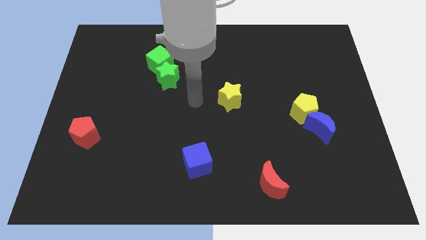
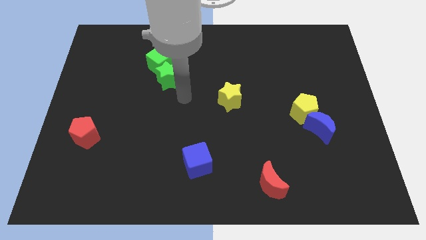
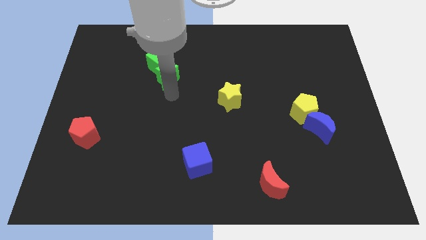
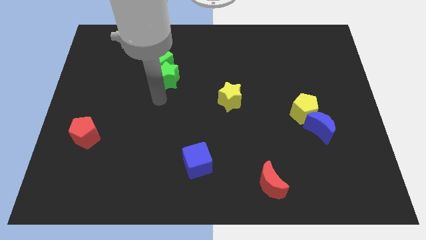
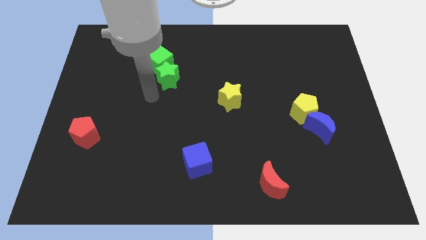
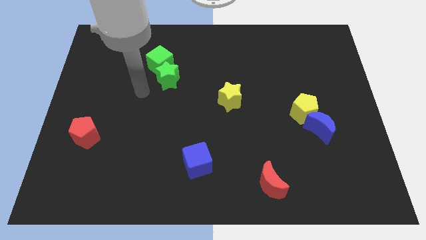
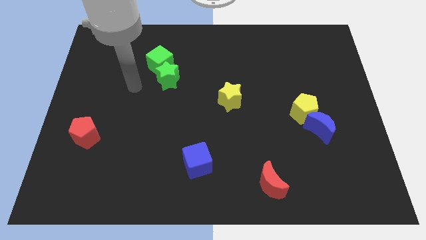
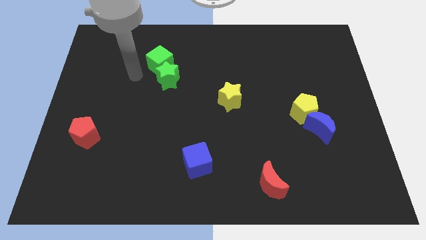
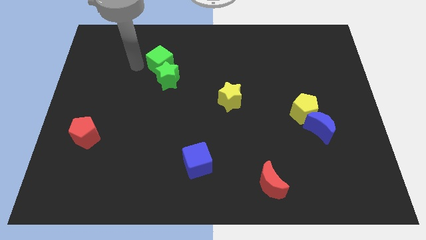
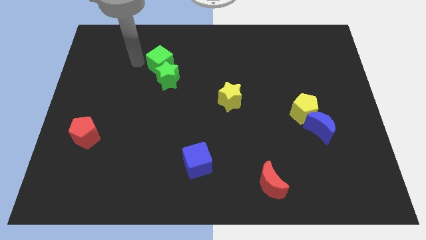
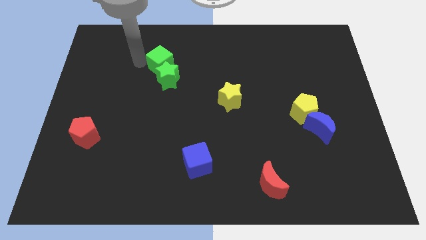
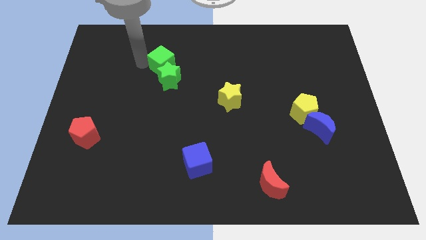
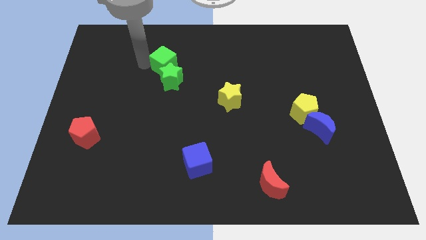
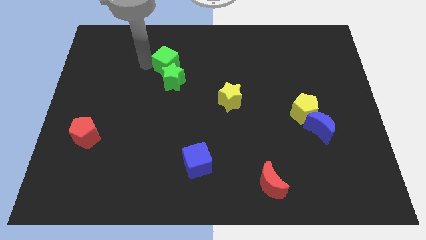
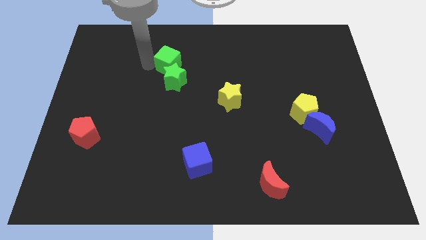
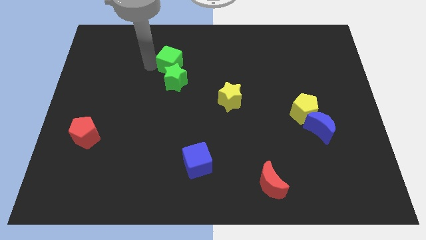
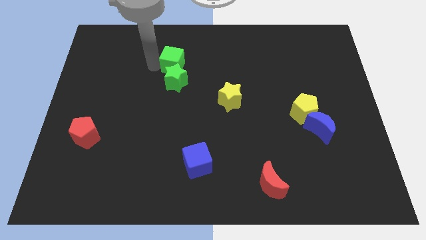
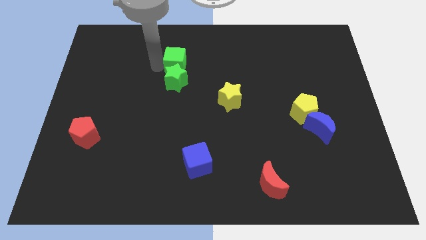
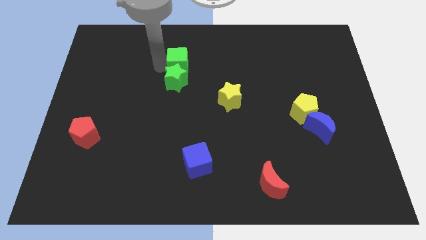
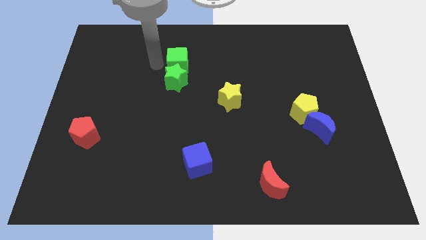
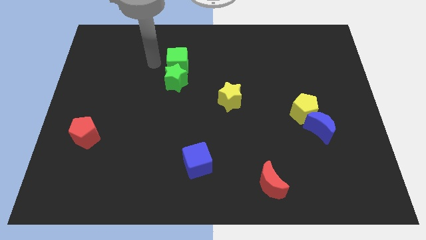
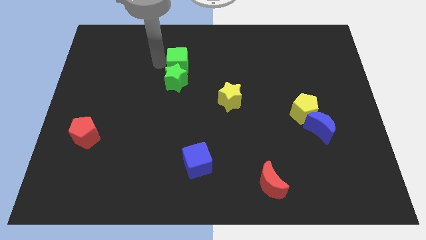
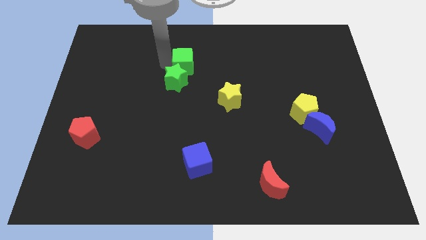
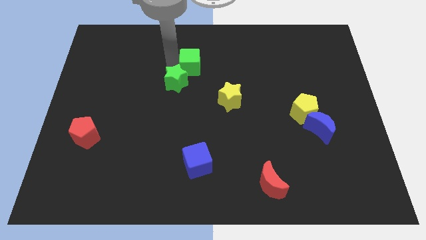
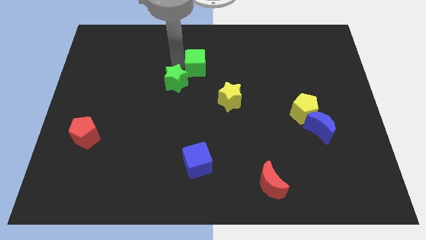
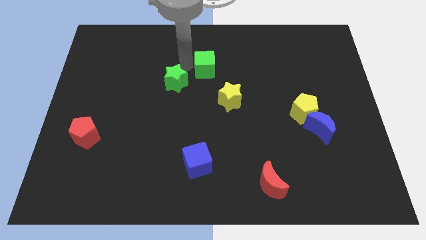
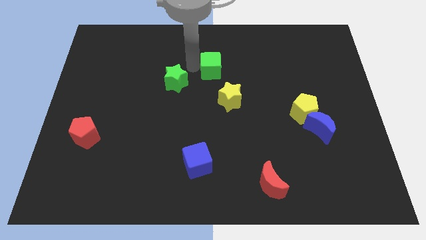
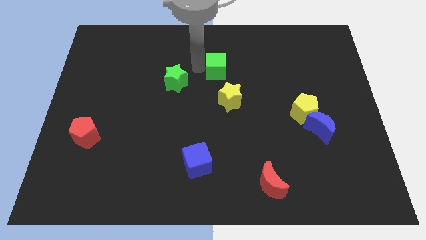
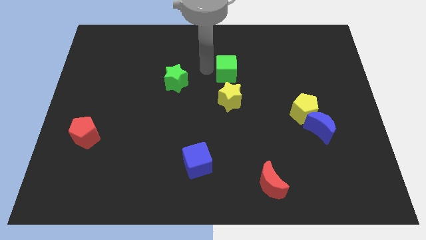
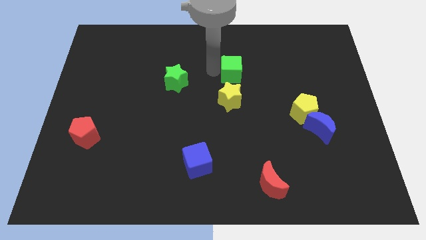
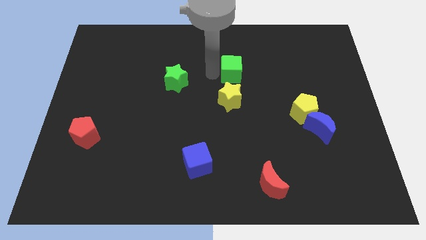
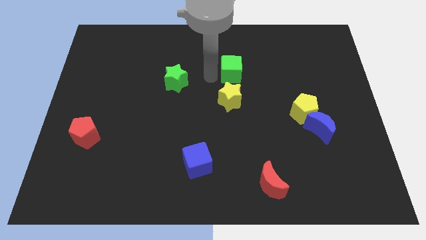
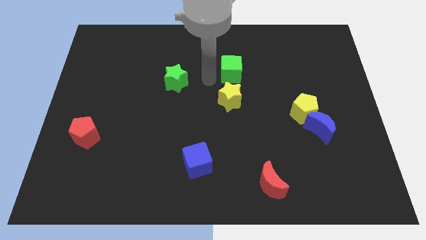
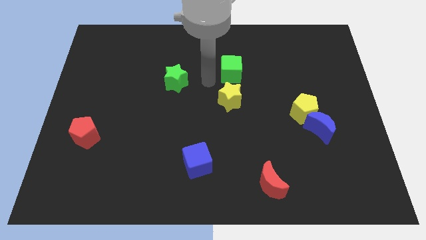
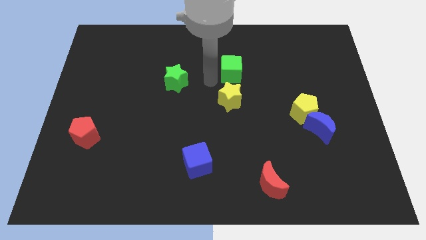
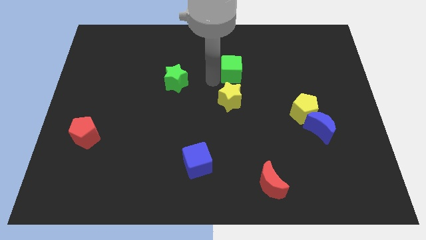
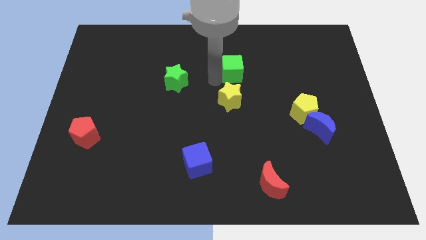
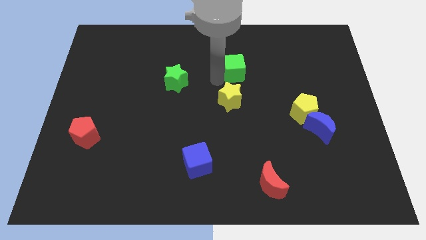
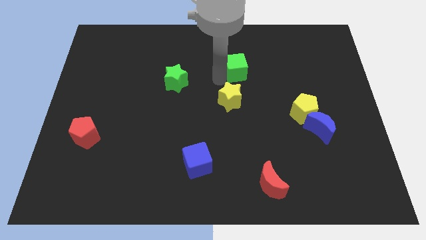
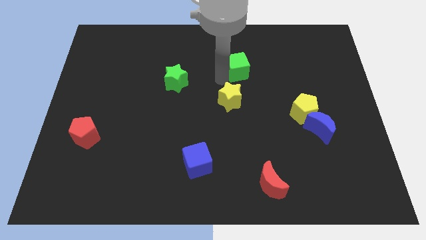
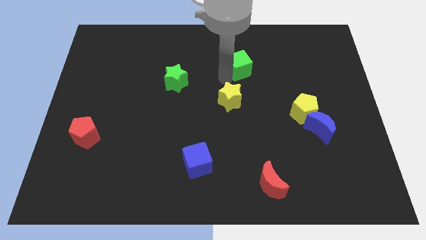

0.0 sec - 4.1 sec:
move the green cube to the right

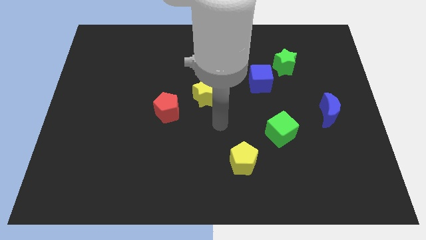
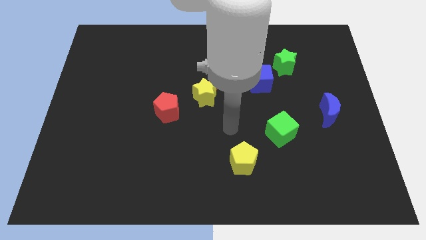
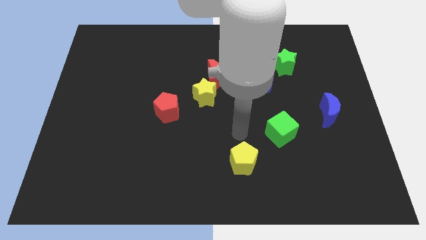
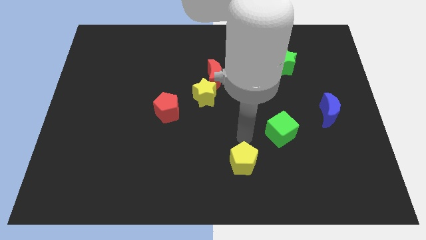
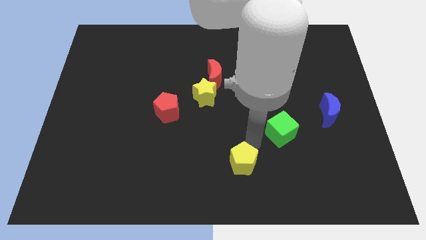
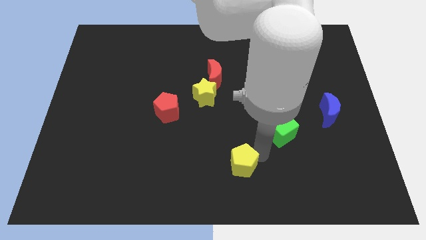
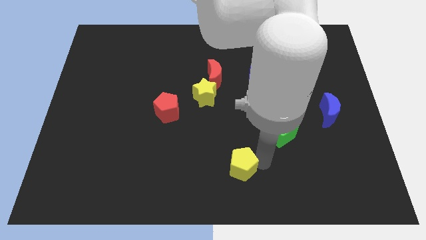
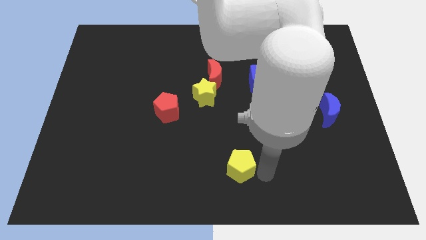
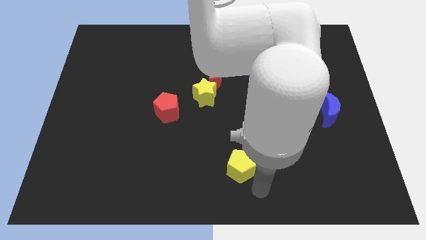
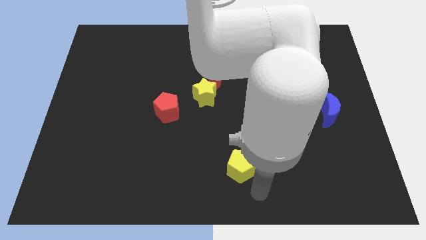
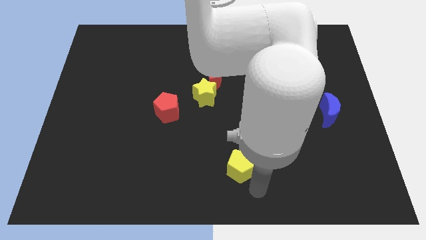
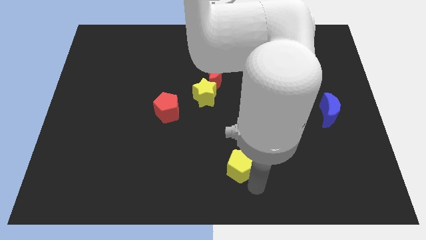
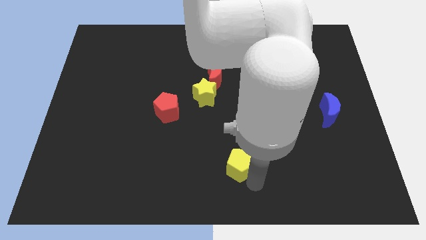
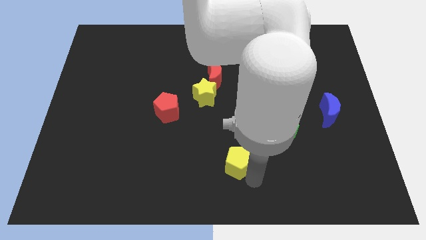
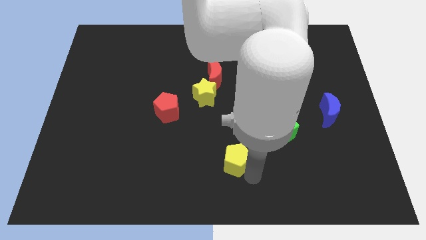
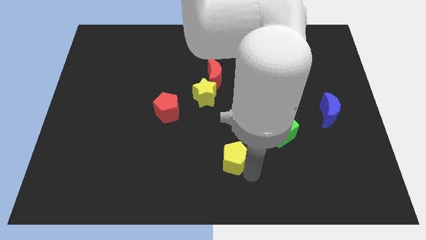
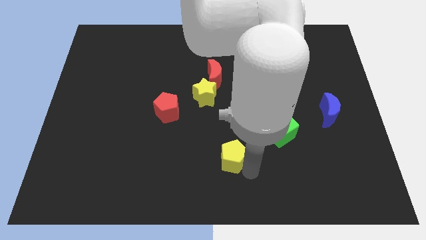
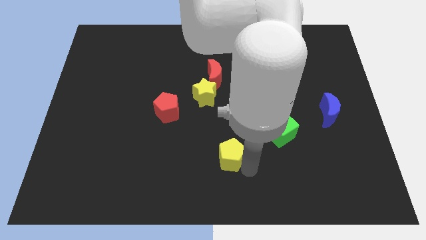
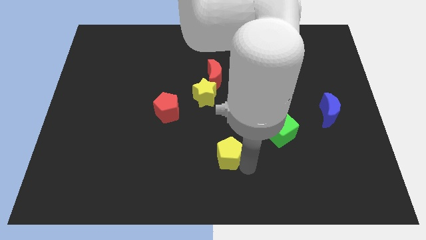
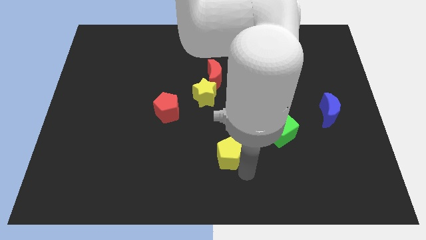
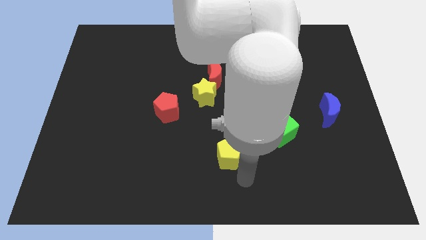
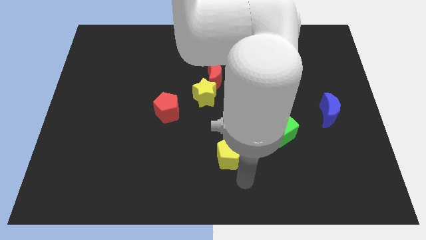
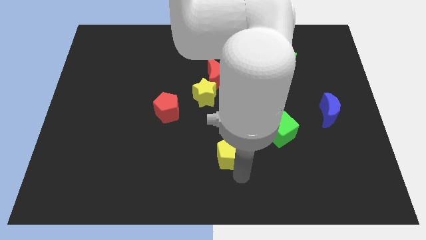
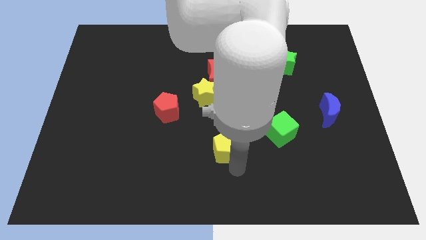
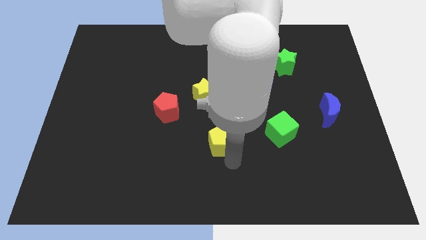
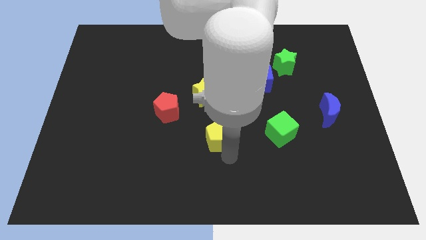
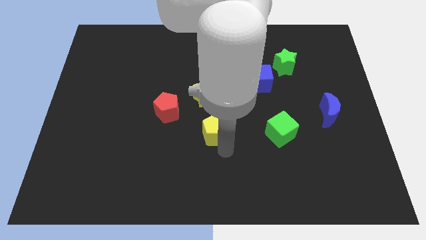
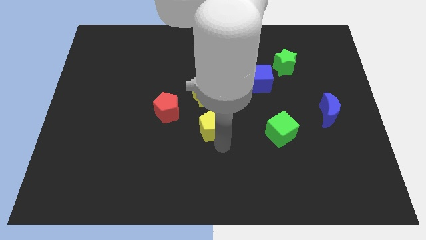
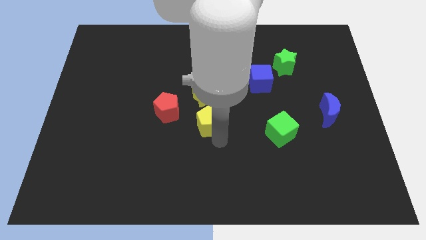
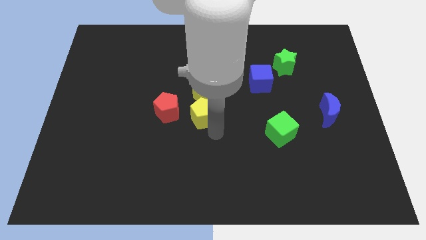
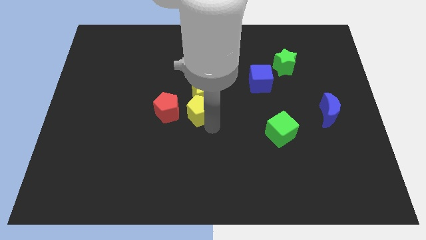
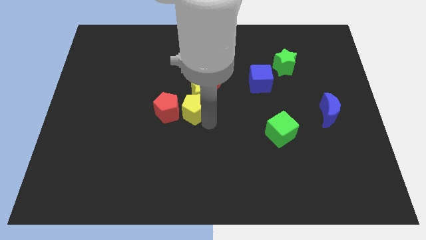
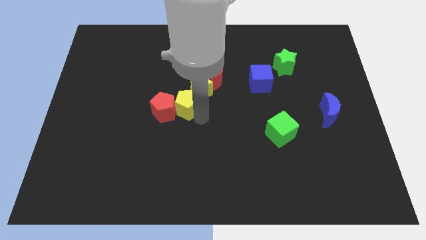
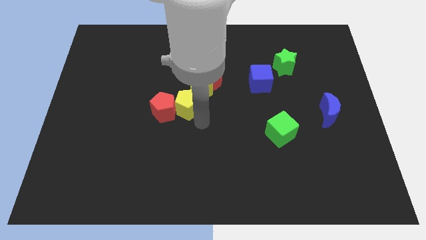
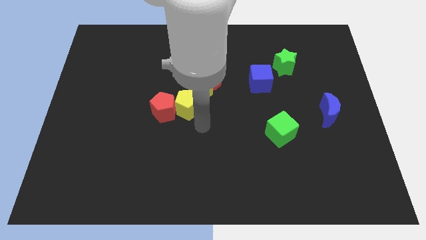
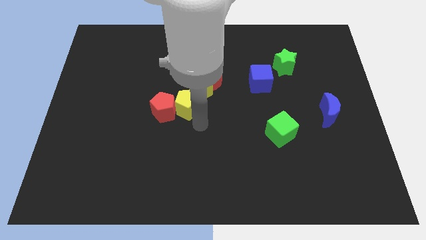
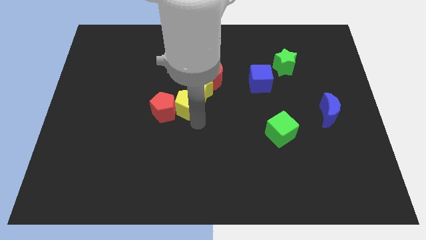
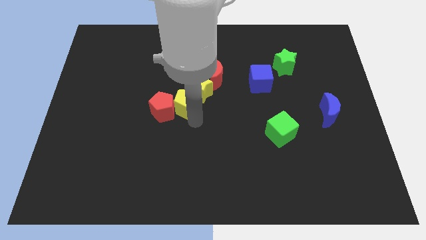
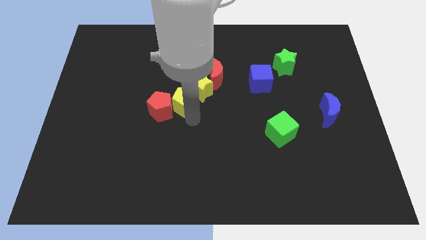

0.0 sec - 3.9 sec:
push the yellow pentagon upwards and left diagonally
